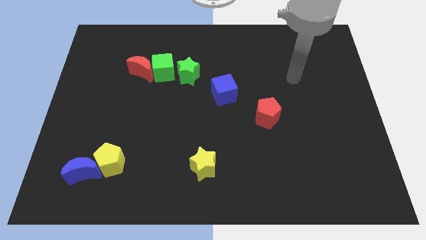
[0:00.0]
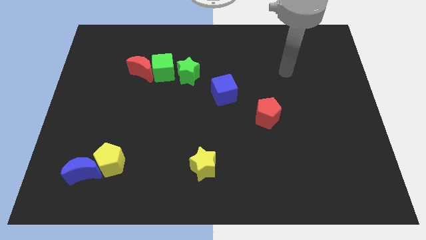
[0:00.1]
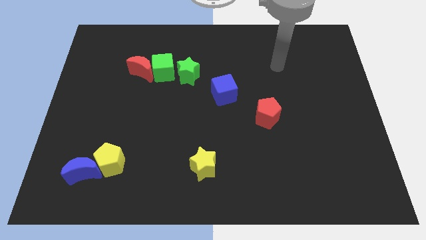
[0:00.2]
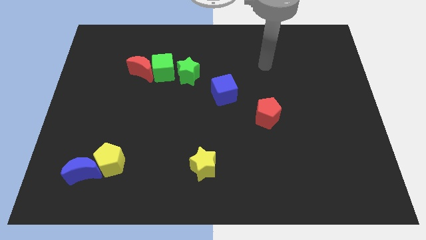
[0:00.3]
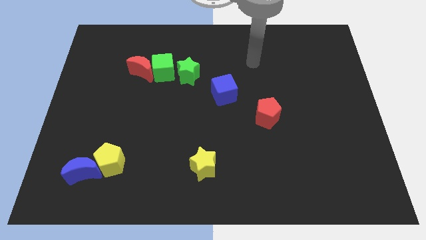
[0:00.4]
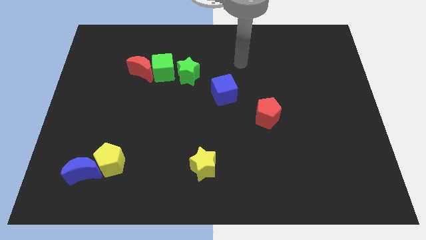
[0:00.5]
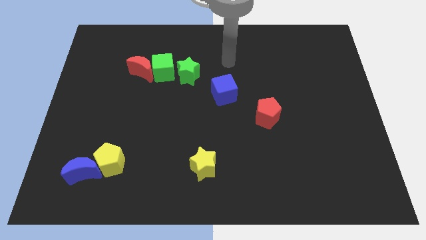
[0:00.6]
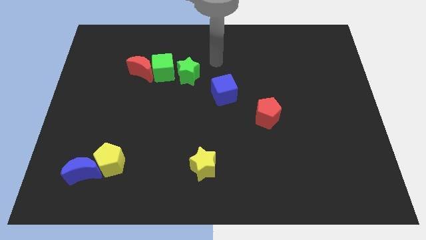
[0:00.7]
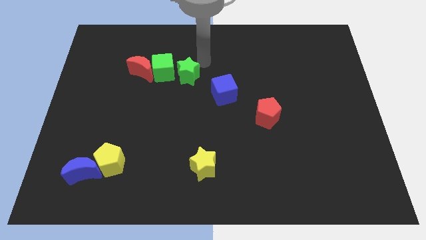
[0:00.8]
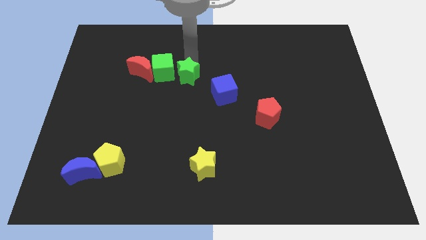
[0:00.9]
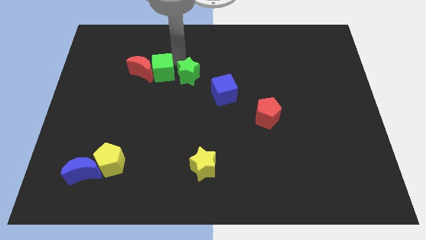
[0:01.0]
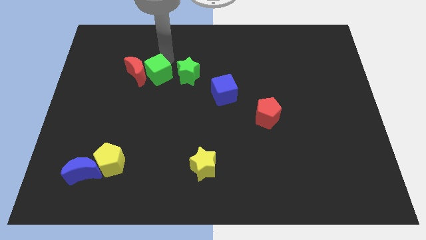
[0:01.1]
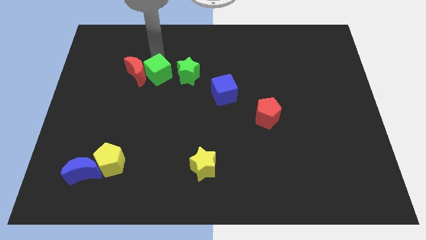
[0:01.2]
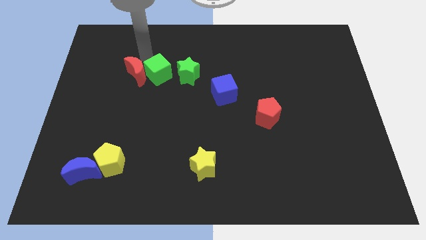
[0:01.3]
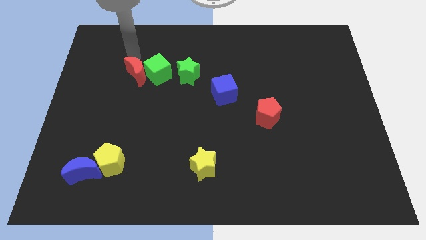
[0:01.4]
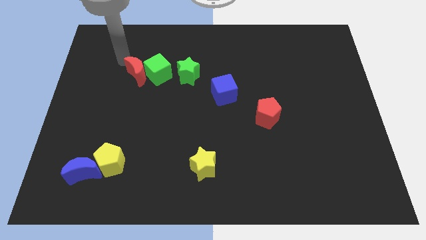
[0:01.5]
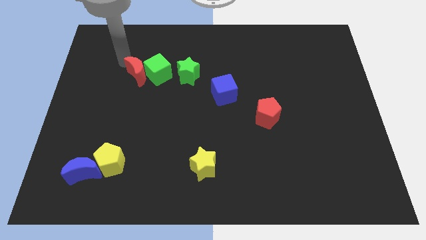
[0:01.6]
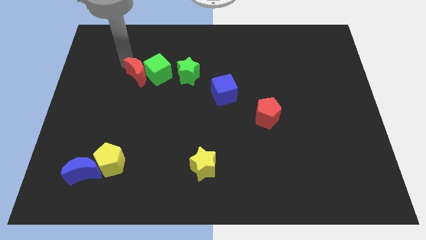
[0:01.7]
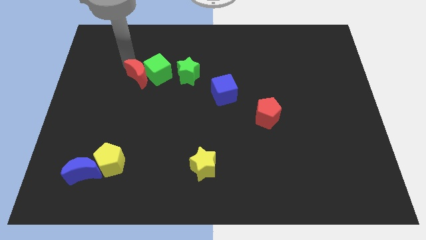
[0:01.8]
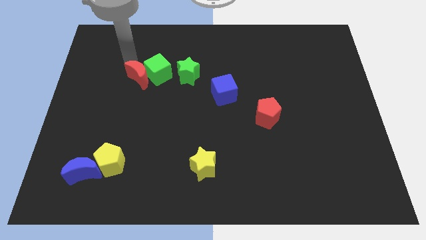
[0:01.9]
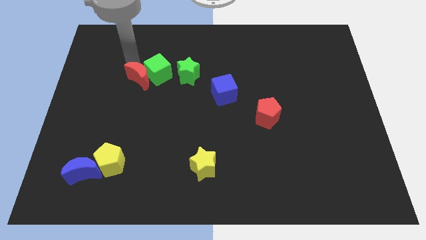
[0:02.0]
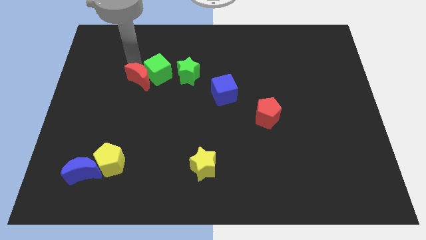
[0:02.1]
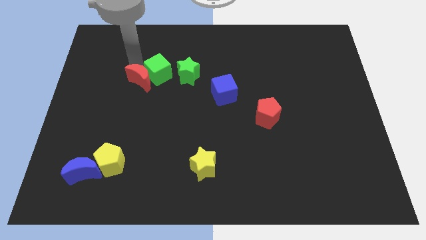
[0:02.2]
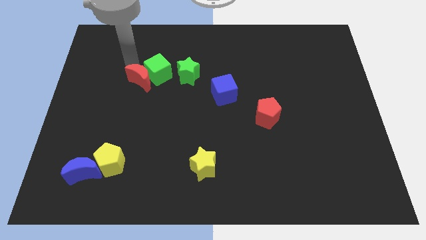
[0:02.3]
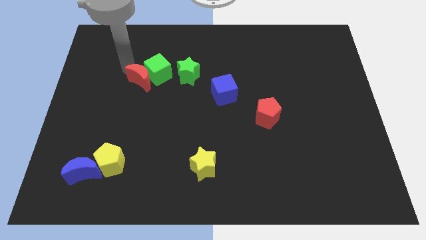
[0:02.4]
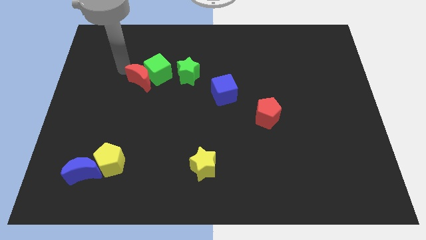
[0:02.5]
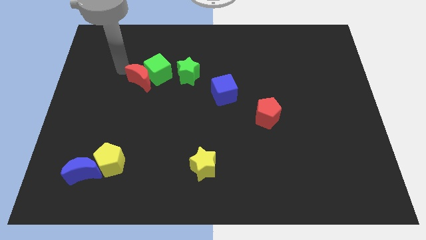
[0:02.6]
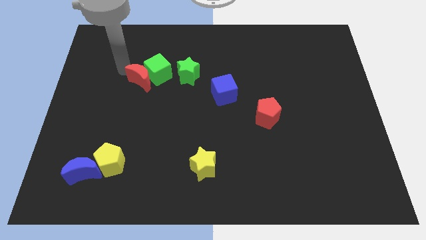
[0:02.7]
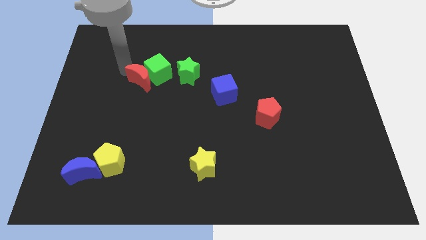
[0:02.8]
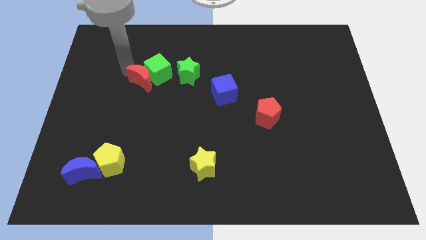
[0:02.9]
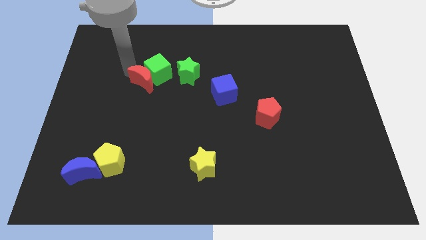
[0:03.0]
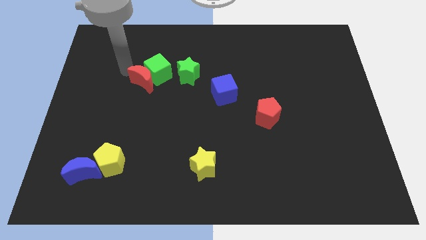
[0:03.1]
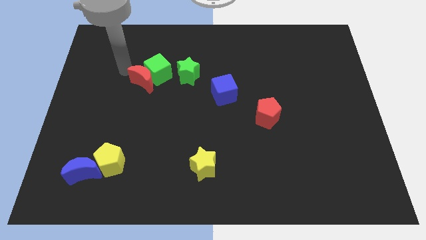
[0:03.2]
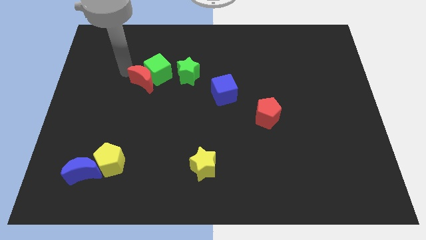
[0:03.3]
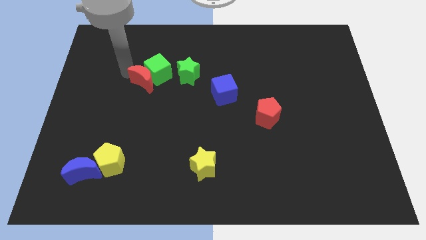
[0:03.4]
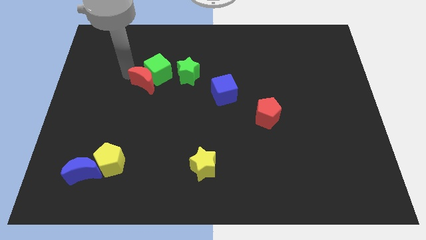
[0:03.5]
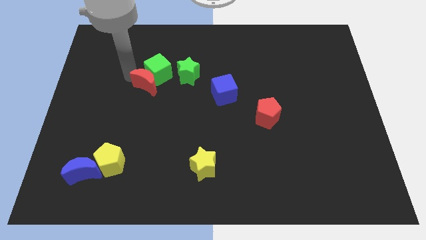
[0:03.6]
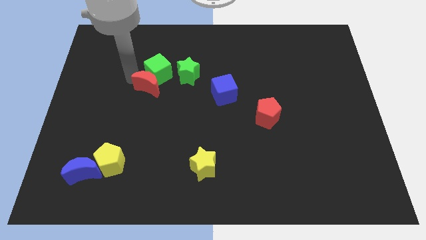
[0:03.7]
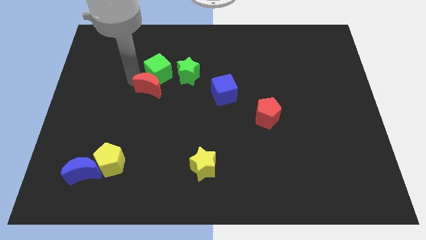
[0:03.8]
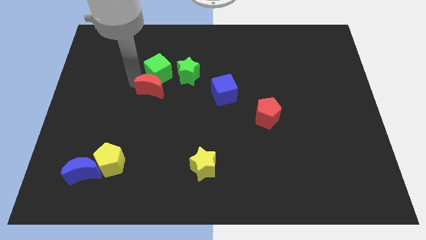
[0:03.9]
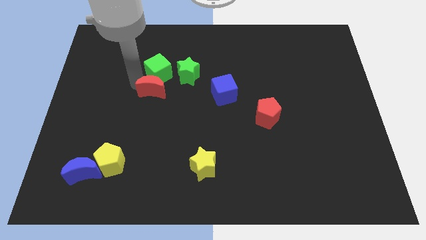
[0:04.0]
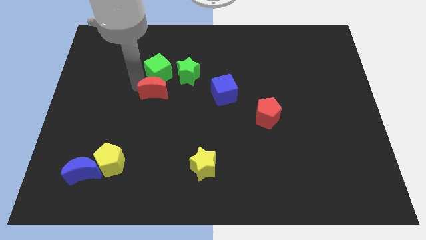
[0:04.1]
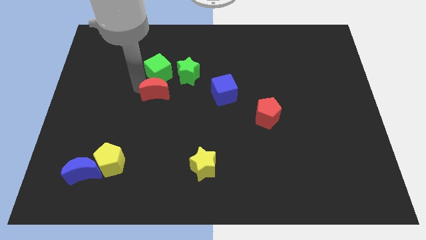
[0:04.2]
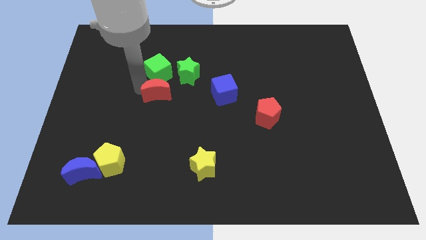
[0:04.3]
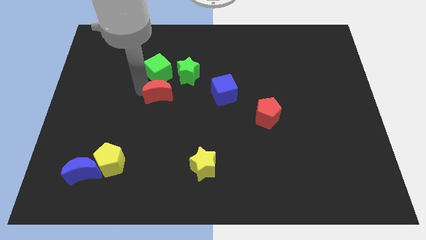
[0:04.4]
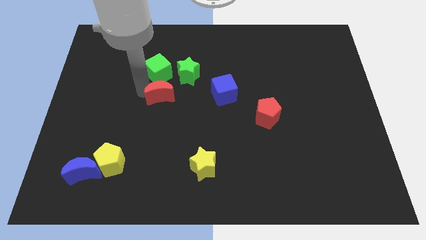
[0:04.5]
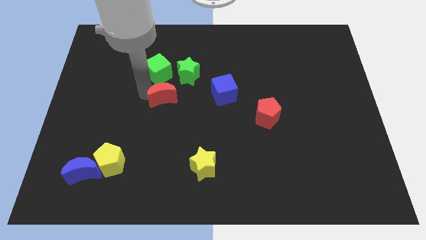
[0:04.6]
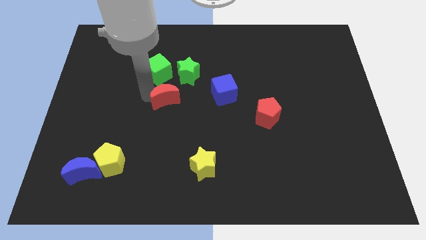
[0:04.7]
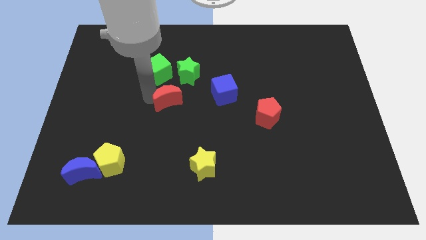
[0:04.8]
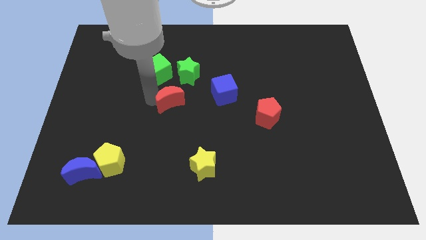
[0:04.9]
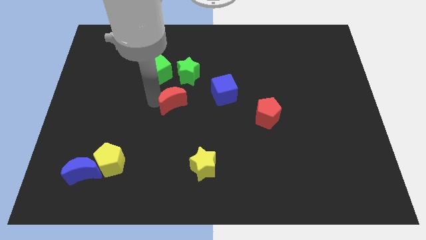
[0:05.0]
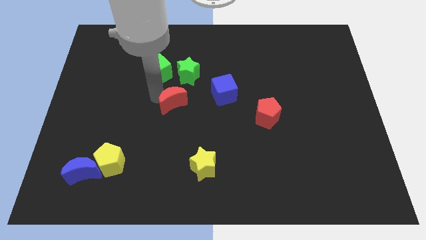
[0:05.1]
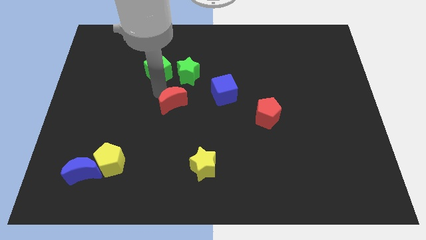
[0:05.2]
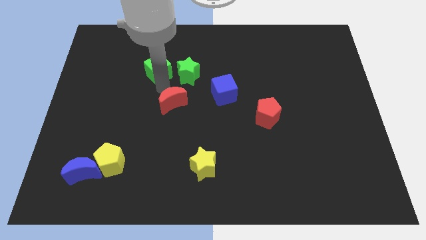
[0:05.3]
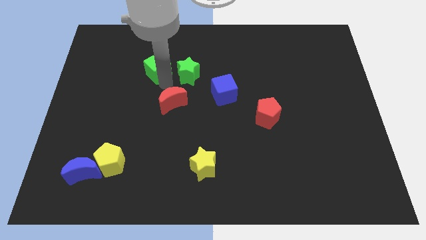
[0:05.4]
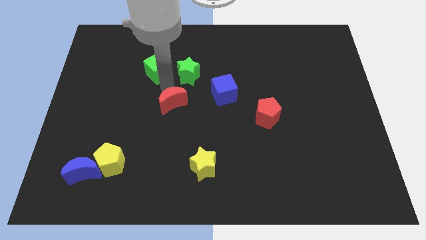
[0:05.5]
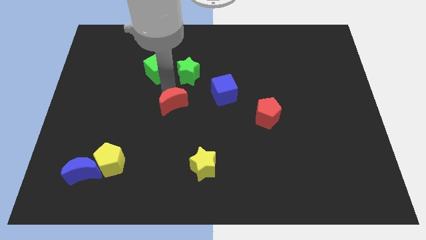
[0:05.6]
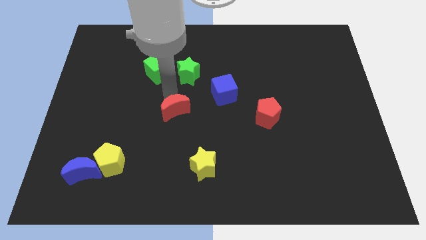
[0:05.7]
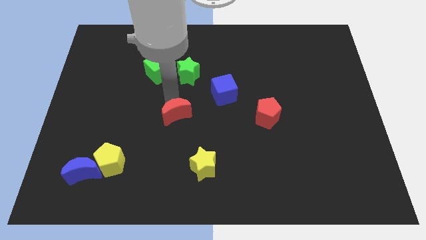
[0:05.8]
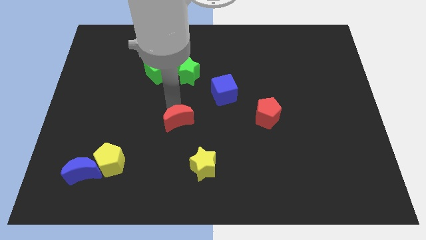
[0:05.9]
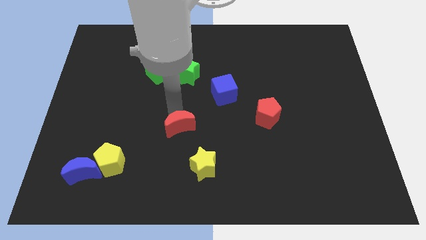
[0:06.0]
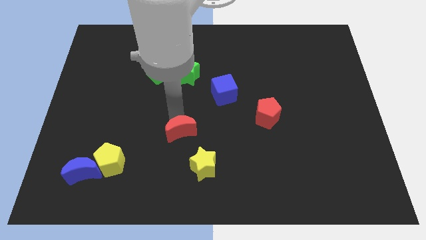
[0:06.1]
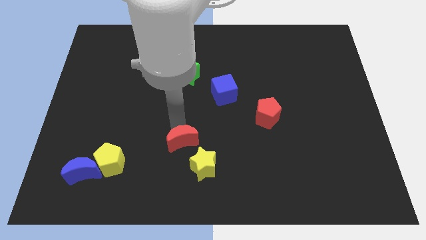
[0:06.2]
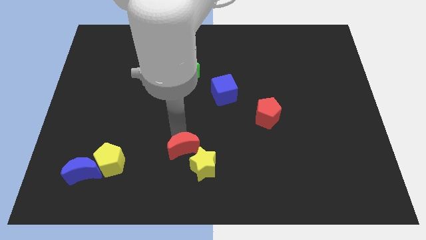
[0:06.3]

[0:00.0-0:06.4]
move the red moon close to the yellow star

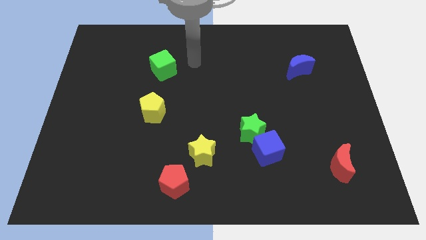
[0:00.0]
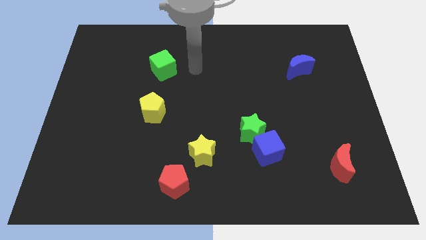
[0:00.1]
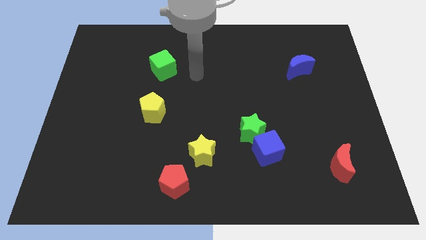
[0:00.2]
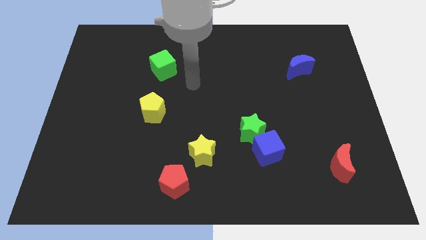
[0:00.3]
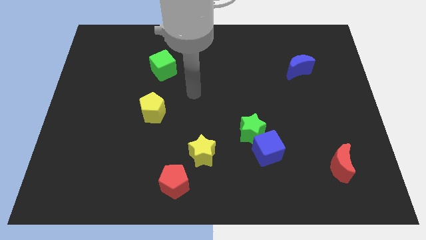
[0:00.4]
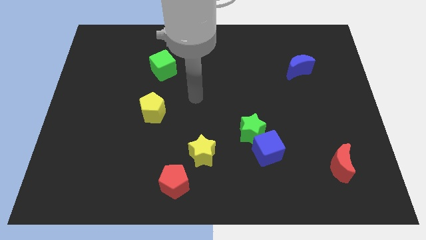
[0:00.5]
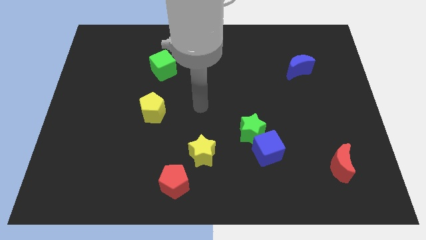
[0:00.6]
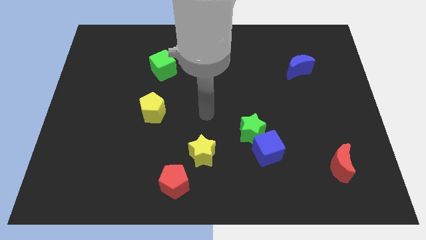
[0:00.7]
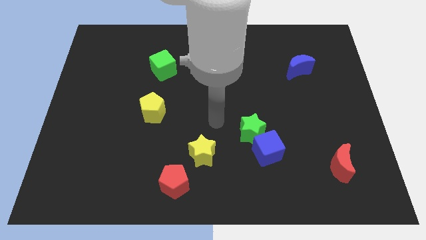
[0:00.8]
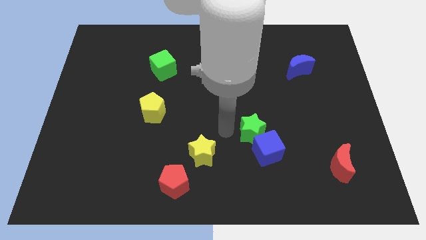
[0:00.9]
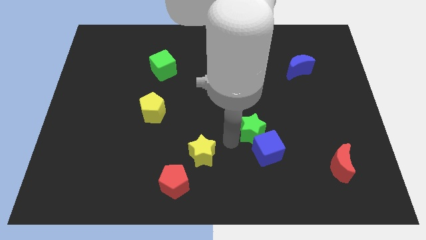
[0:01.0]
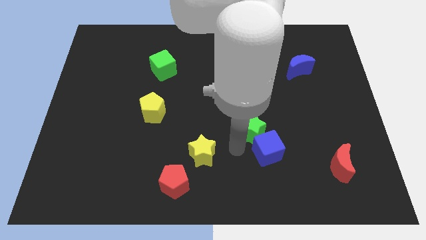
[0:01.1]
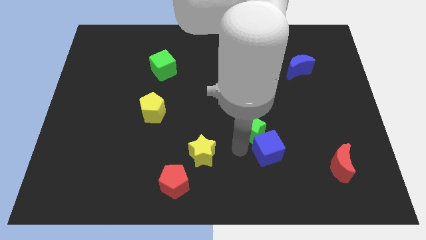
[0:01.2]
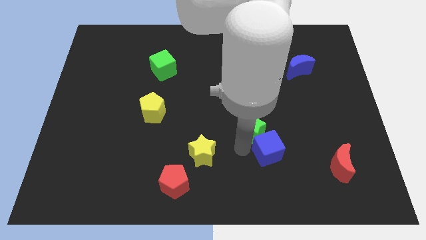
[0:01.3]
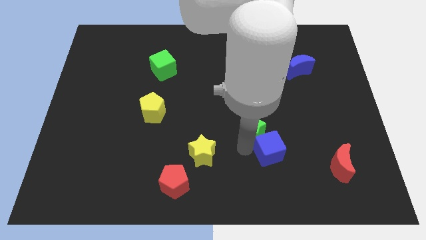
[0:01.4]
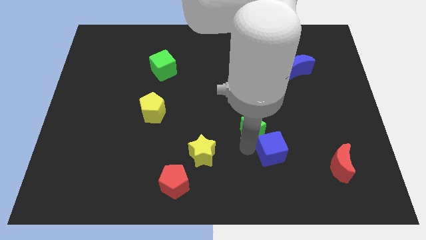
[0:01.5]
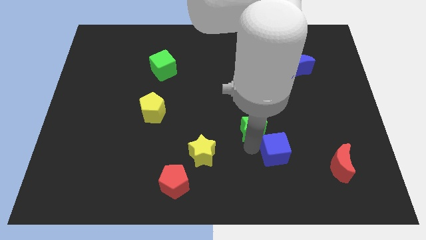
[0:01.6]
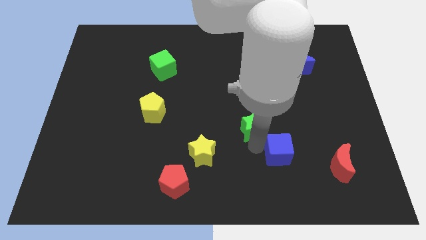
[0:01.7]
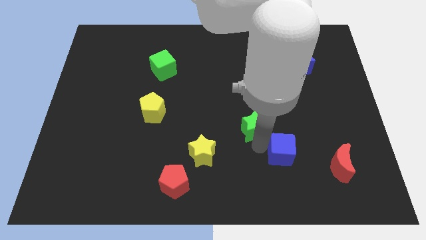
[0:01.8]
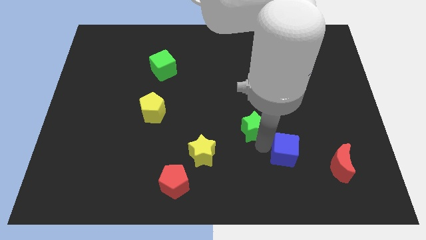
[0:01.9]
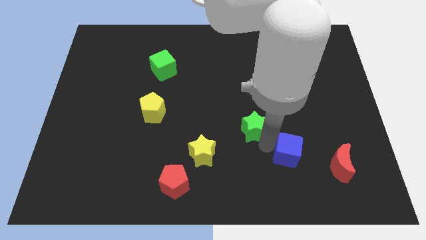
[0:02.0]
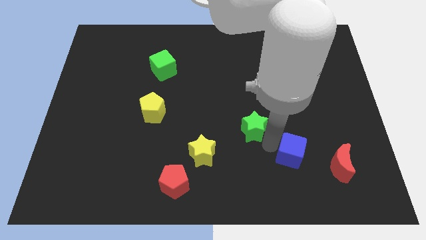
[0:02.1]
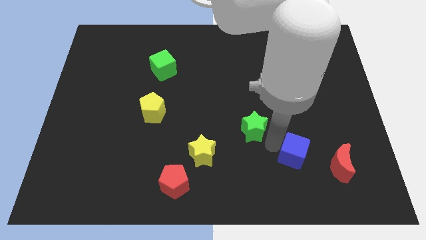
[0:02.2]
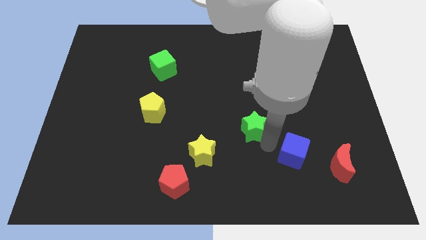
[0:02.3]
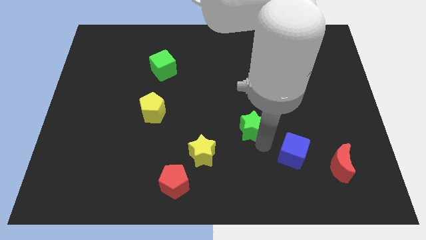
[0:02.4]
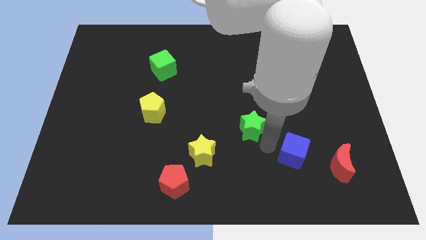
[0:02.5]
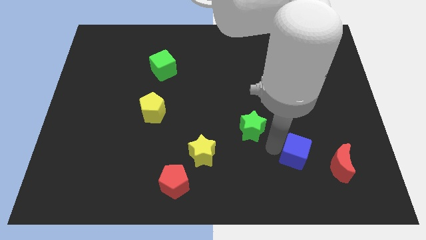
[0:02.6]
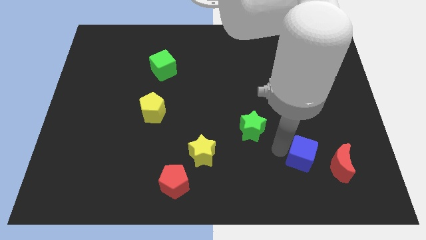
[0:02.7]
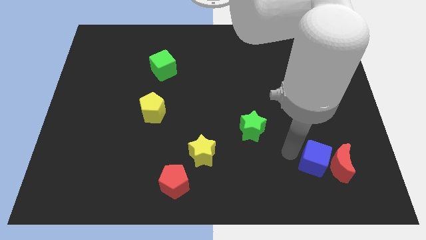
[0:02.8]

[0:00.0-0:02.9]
put the blue cube close to the red moon
